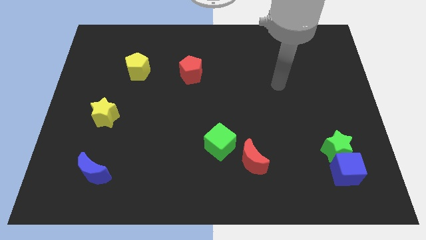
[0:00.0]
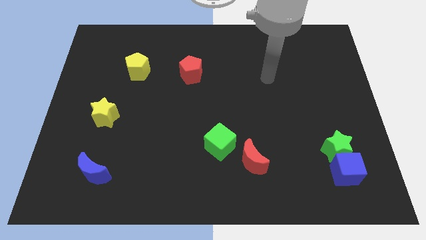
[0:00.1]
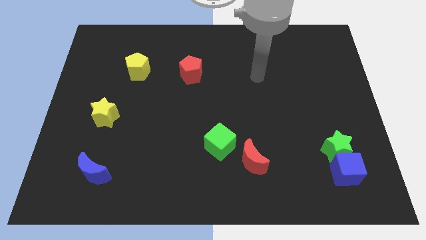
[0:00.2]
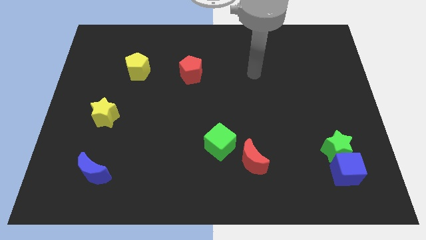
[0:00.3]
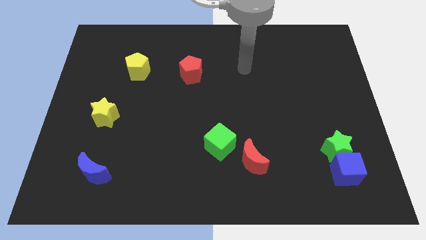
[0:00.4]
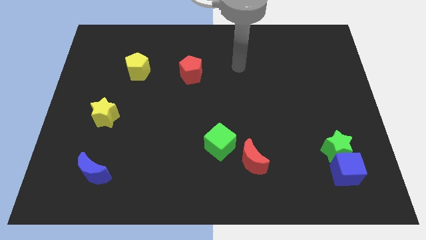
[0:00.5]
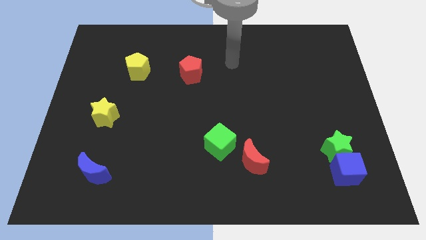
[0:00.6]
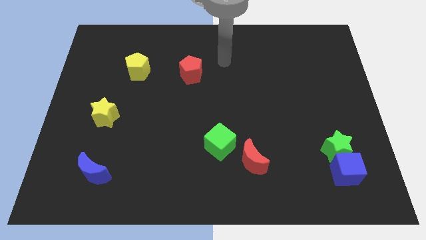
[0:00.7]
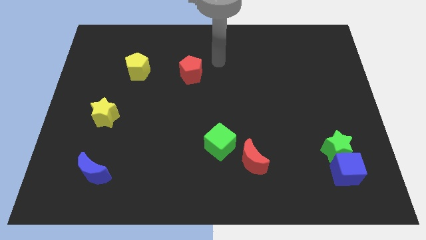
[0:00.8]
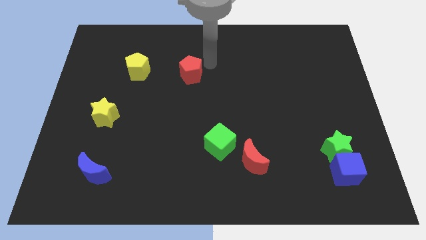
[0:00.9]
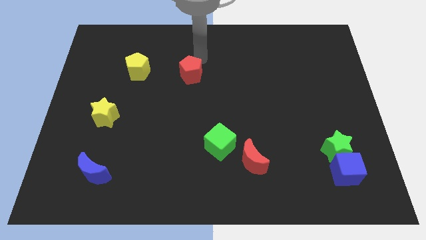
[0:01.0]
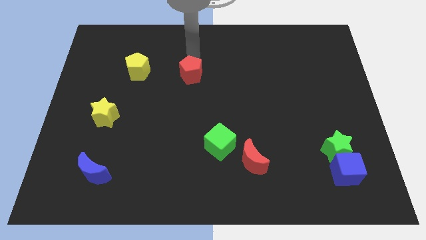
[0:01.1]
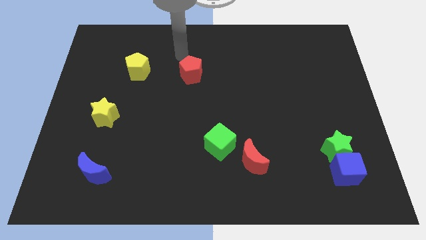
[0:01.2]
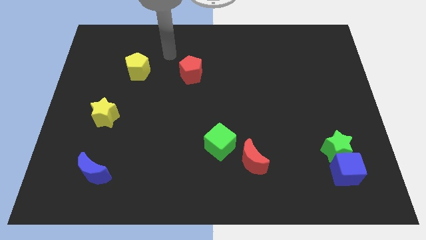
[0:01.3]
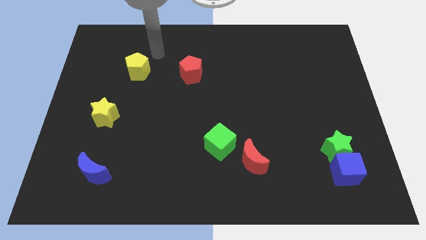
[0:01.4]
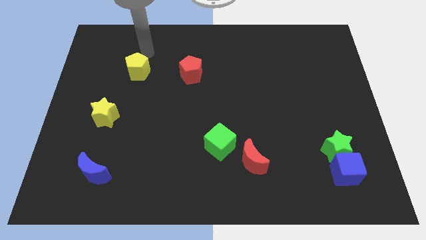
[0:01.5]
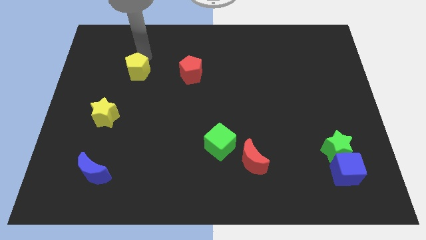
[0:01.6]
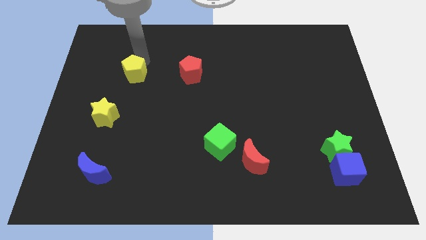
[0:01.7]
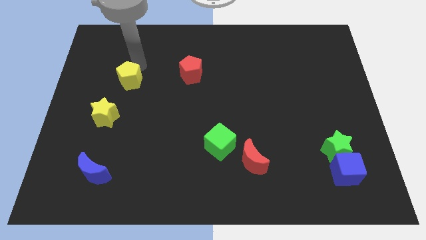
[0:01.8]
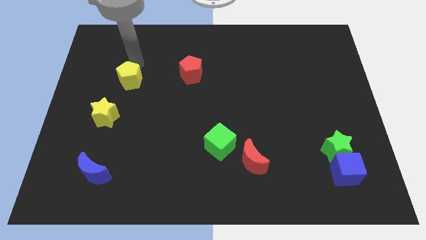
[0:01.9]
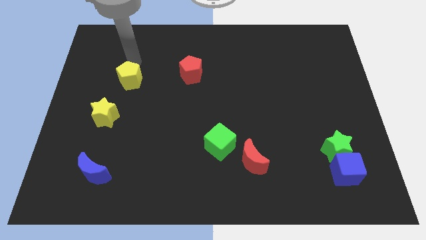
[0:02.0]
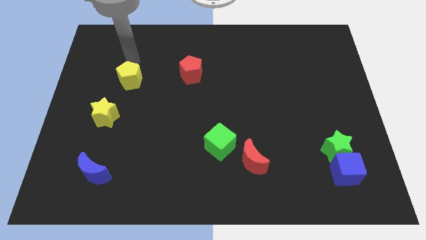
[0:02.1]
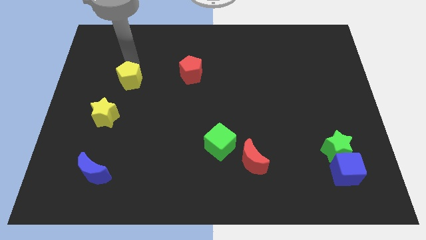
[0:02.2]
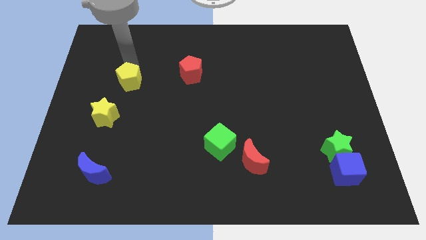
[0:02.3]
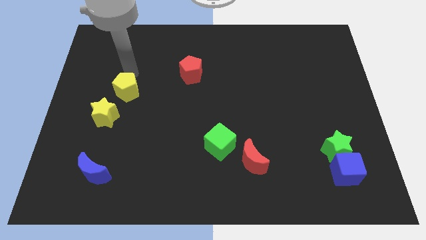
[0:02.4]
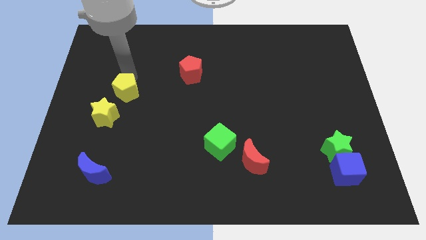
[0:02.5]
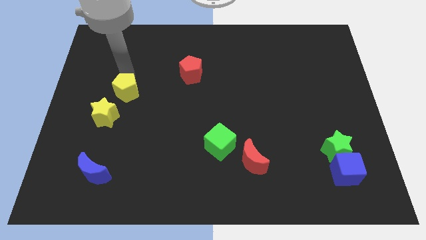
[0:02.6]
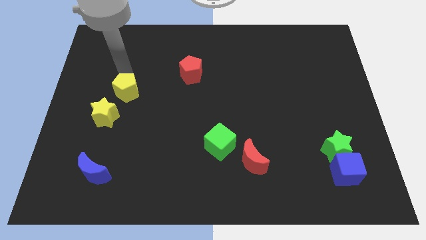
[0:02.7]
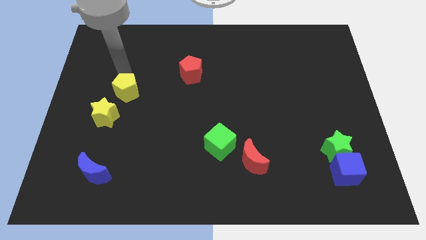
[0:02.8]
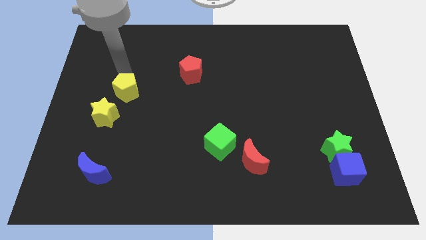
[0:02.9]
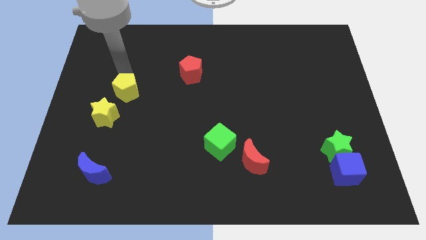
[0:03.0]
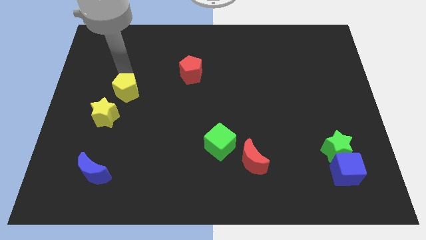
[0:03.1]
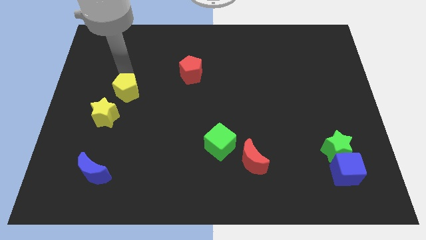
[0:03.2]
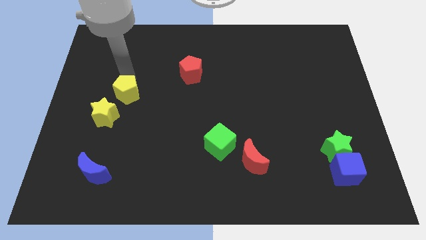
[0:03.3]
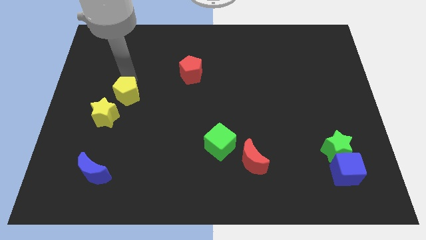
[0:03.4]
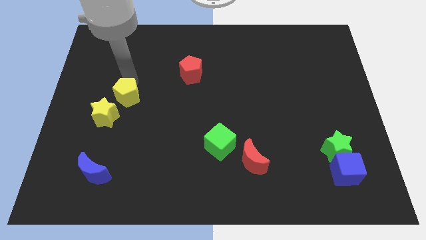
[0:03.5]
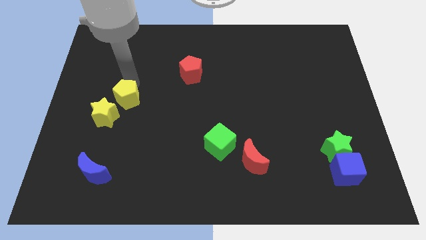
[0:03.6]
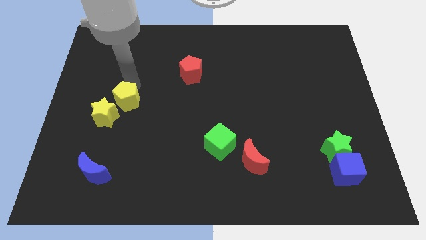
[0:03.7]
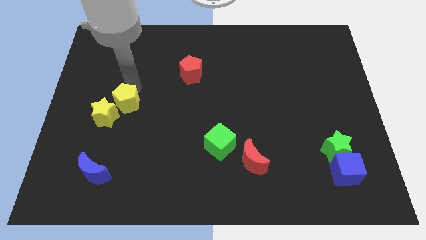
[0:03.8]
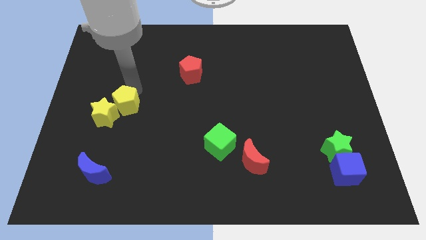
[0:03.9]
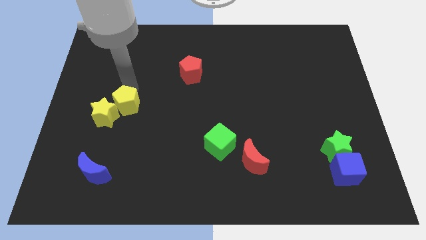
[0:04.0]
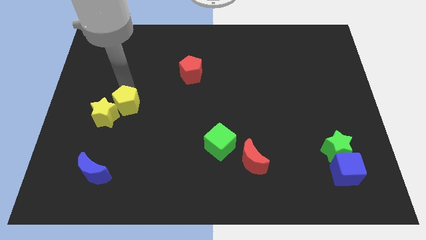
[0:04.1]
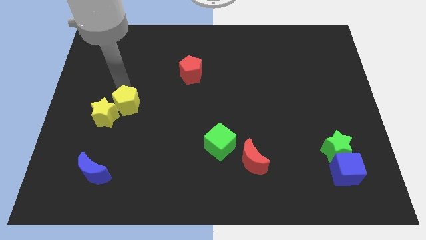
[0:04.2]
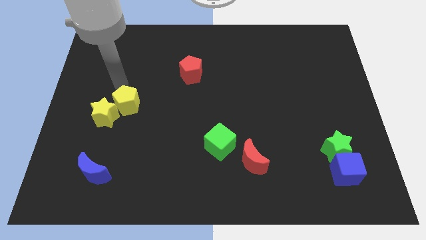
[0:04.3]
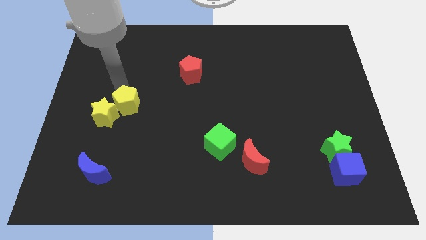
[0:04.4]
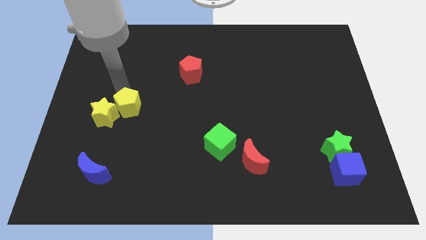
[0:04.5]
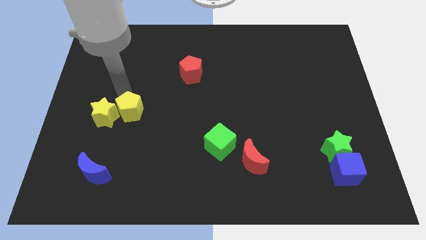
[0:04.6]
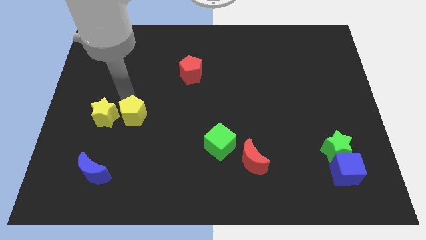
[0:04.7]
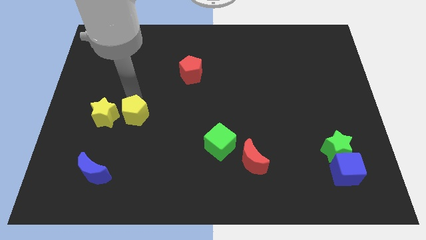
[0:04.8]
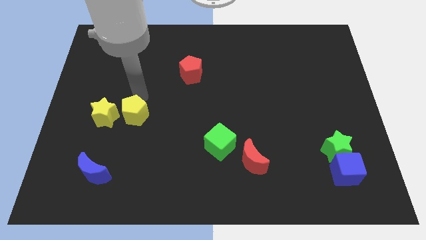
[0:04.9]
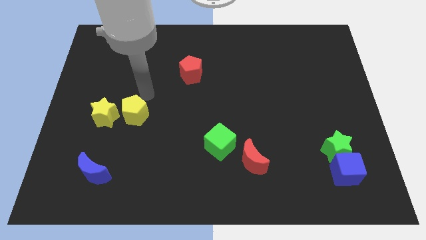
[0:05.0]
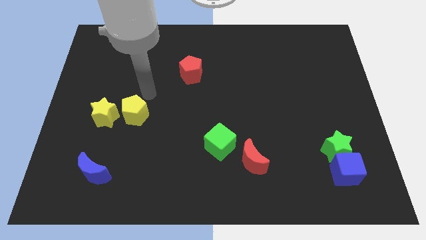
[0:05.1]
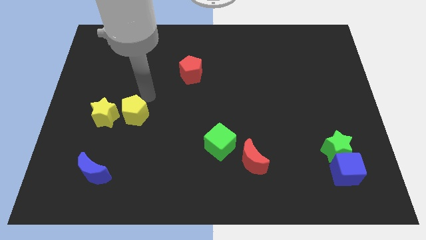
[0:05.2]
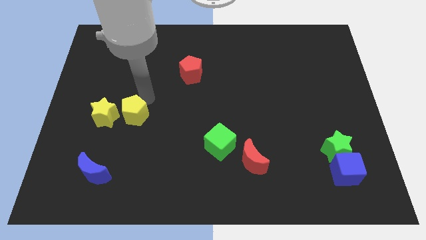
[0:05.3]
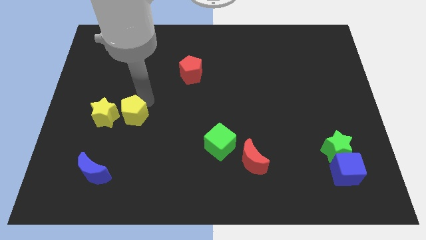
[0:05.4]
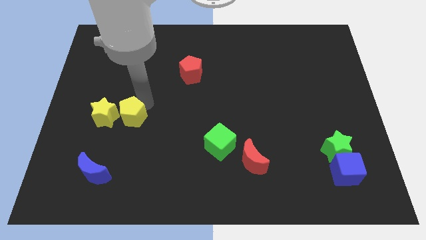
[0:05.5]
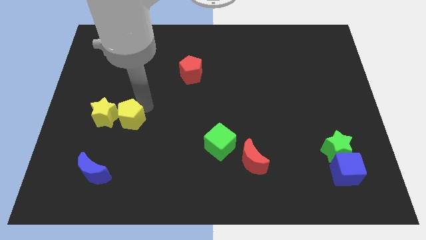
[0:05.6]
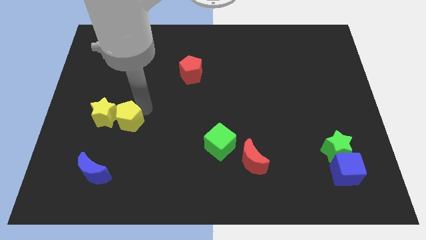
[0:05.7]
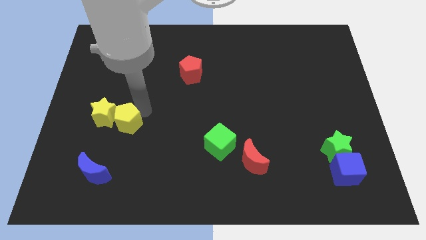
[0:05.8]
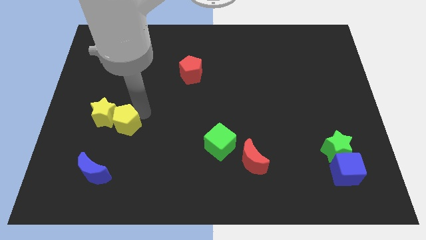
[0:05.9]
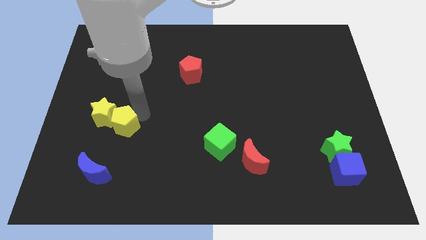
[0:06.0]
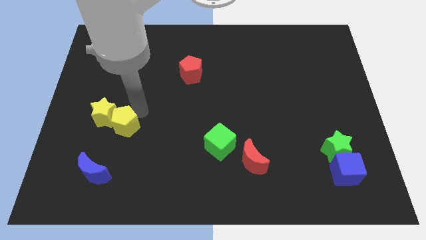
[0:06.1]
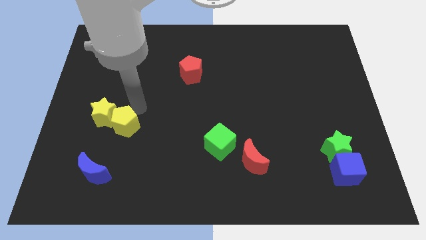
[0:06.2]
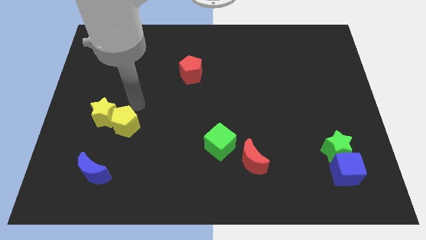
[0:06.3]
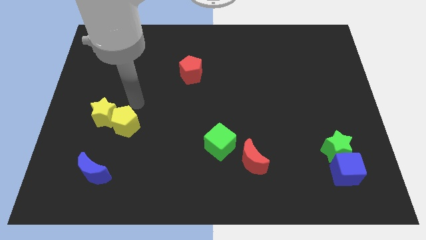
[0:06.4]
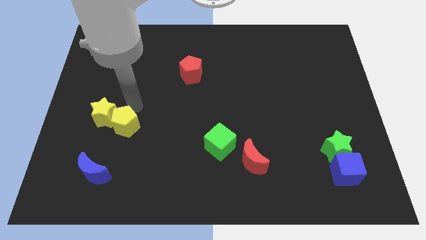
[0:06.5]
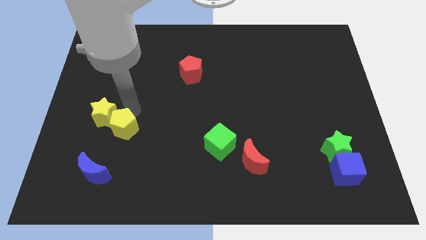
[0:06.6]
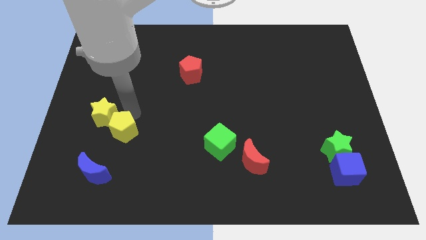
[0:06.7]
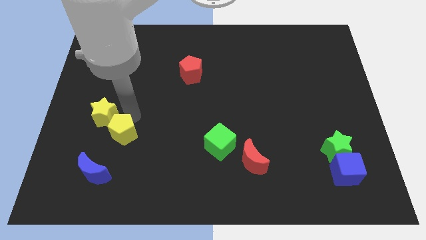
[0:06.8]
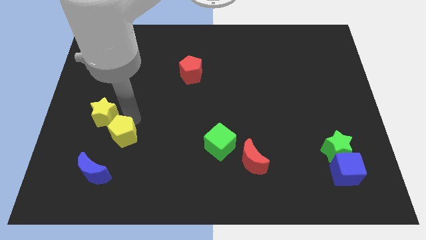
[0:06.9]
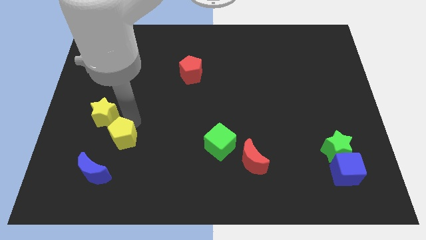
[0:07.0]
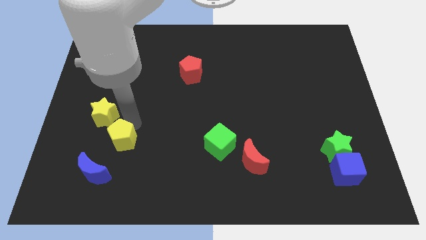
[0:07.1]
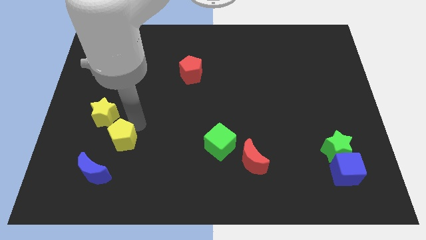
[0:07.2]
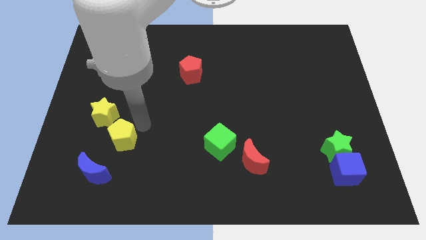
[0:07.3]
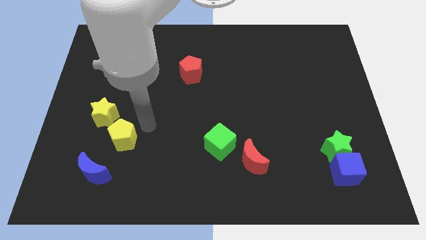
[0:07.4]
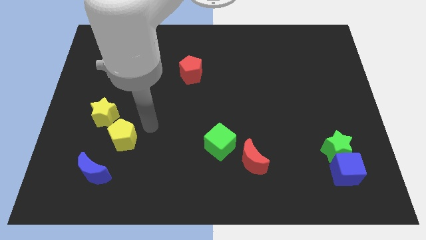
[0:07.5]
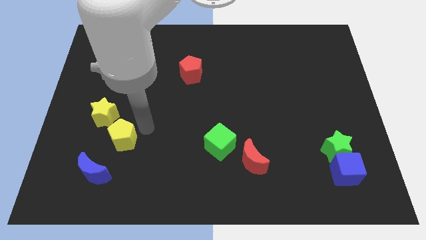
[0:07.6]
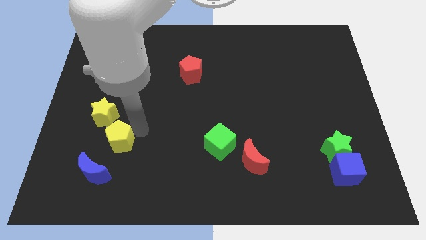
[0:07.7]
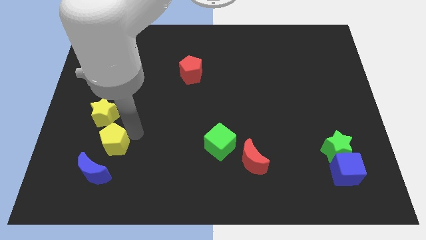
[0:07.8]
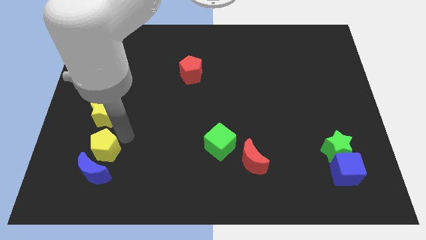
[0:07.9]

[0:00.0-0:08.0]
put the yellow pentagon towards the blue moon
